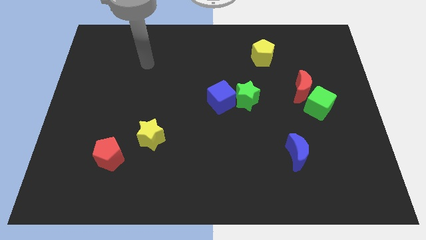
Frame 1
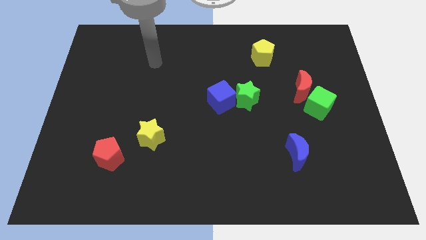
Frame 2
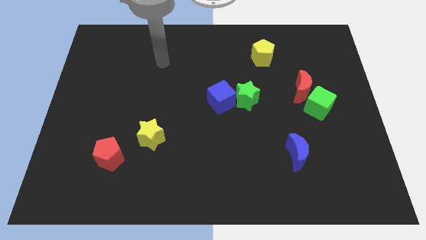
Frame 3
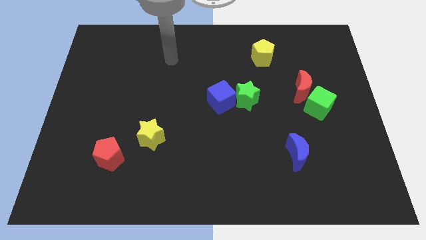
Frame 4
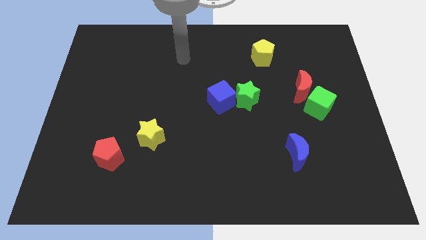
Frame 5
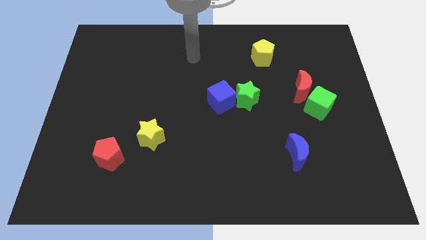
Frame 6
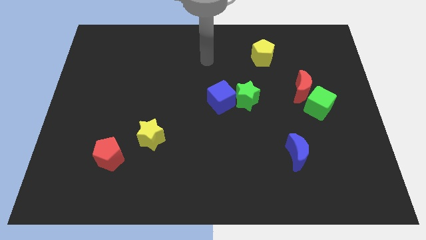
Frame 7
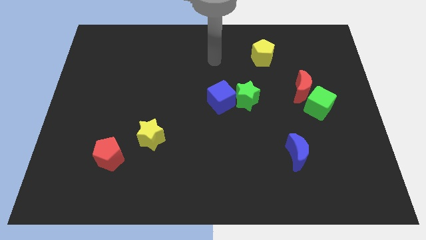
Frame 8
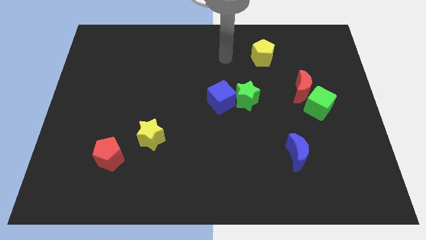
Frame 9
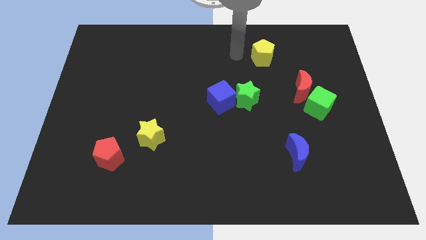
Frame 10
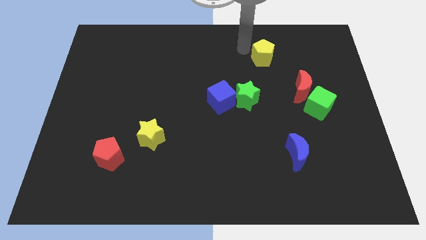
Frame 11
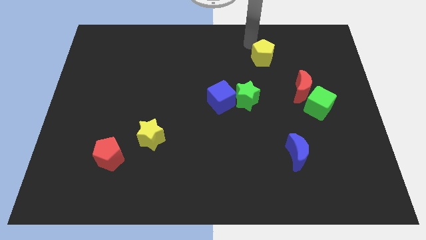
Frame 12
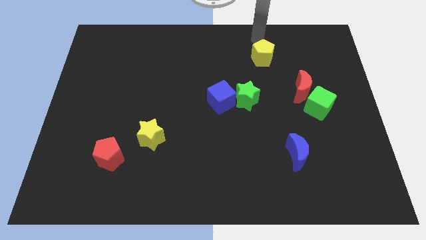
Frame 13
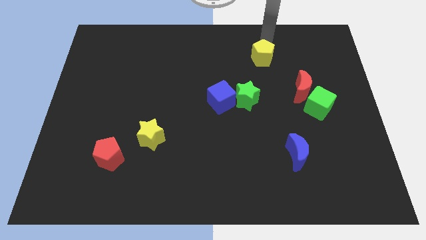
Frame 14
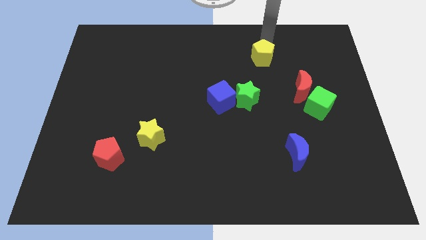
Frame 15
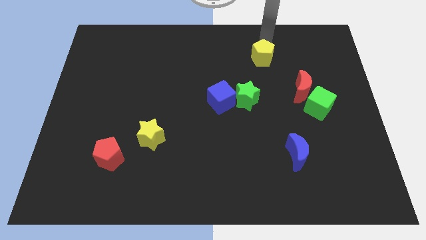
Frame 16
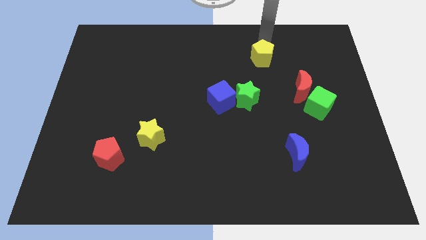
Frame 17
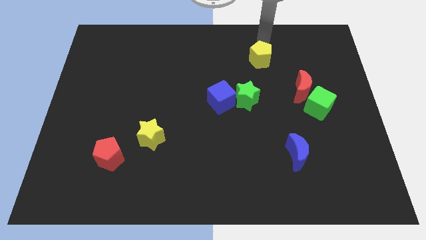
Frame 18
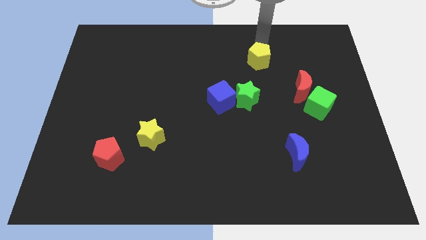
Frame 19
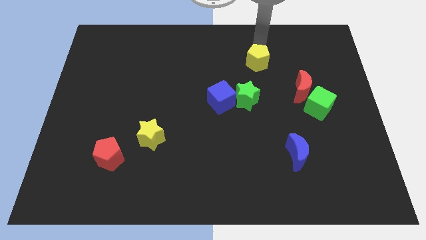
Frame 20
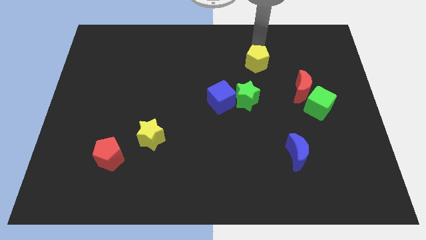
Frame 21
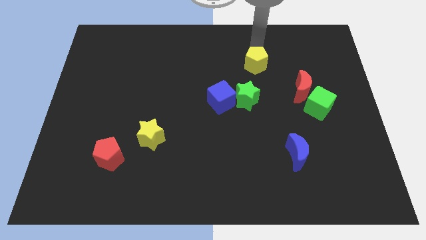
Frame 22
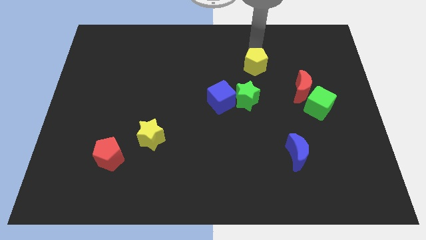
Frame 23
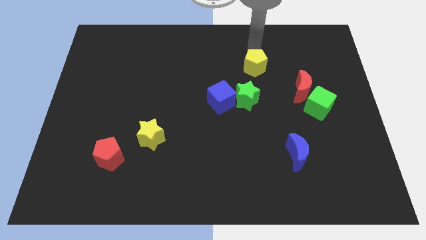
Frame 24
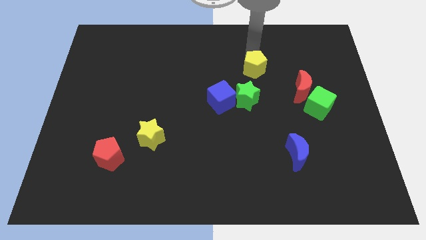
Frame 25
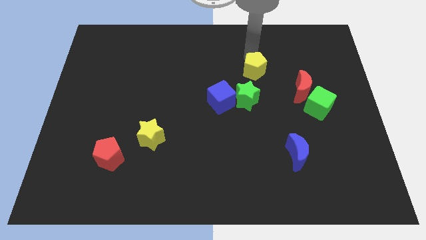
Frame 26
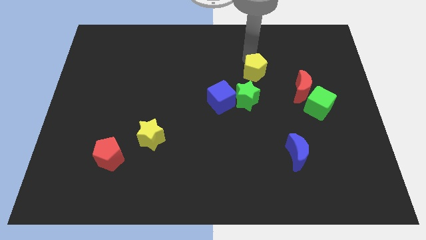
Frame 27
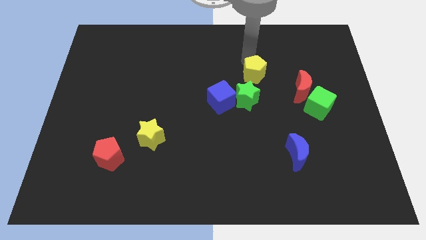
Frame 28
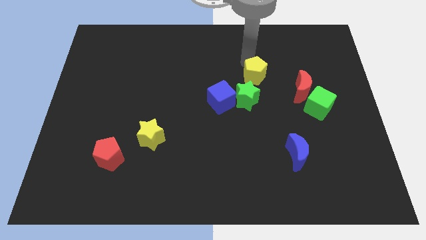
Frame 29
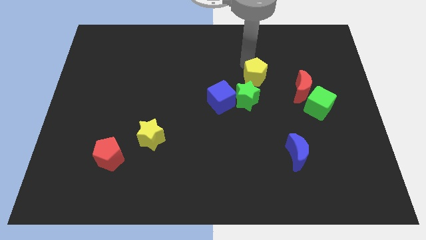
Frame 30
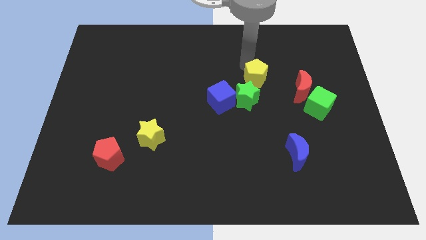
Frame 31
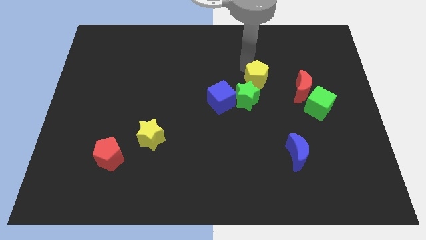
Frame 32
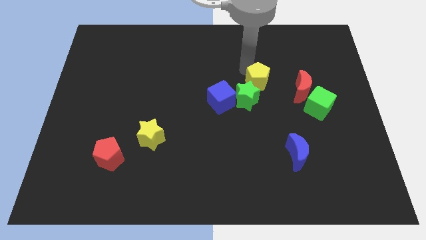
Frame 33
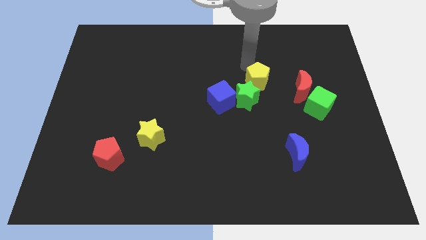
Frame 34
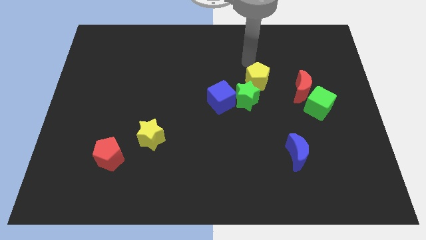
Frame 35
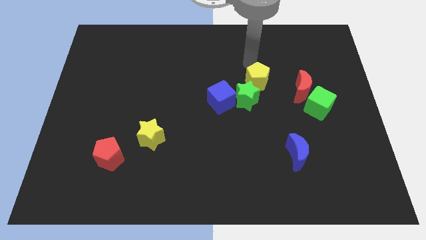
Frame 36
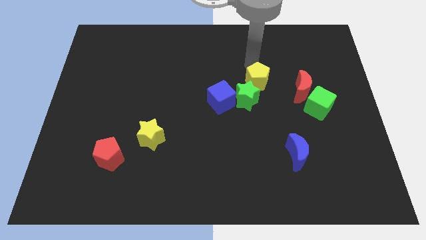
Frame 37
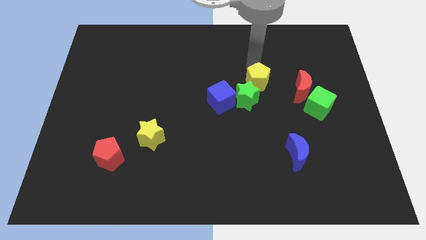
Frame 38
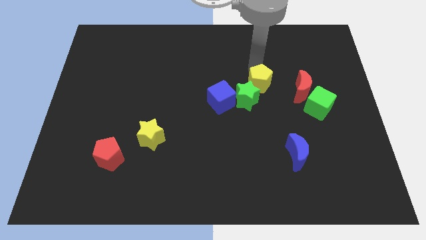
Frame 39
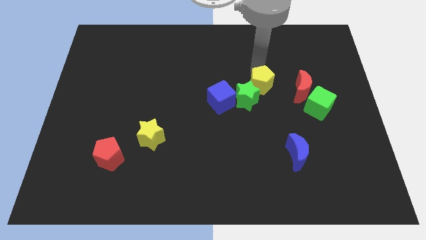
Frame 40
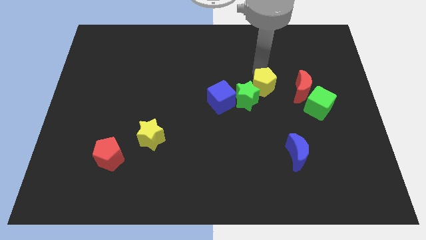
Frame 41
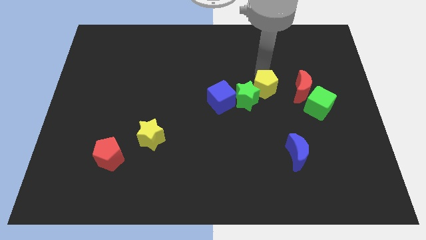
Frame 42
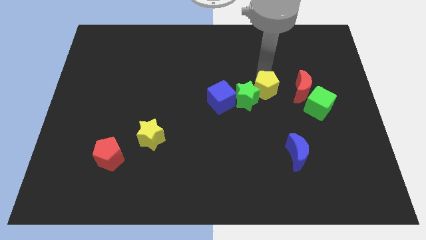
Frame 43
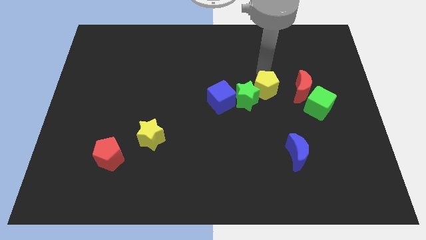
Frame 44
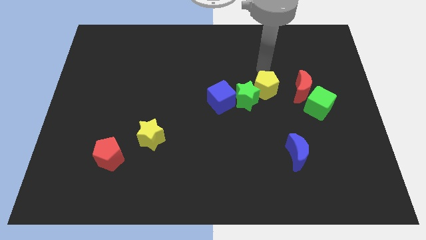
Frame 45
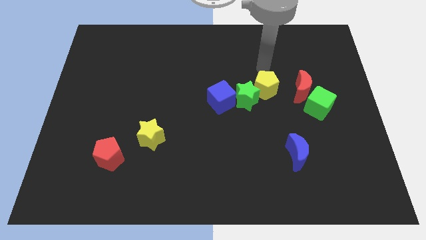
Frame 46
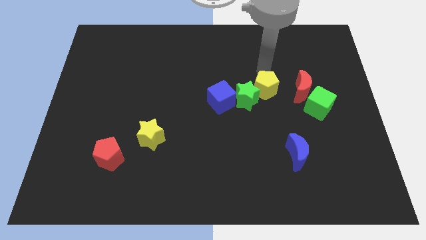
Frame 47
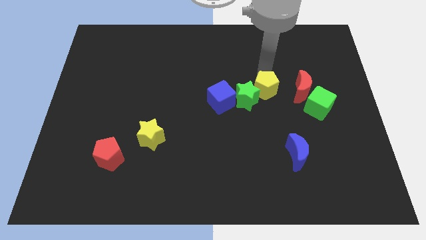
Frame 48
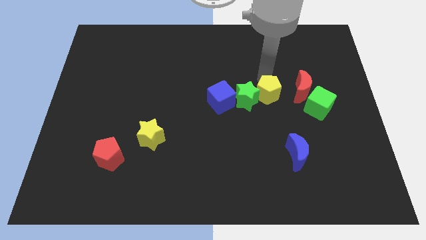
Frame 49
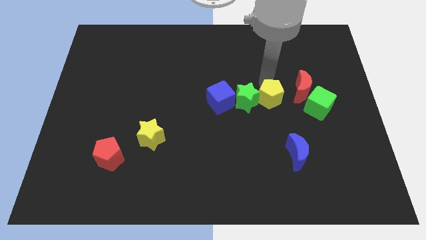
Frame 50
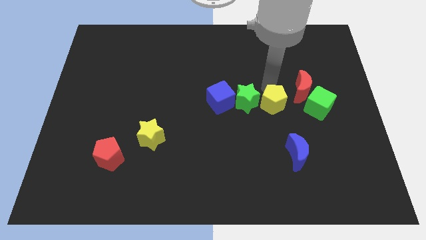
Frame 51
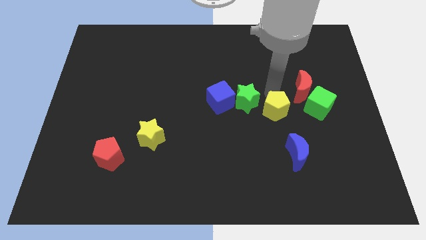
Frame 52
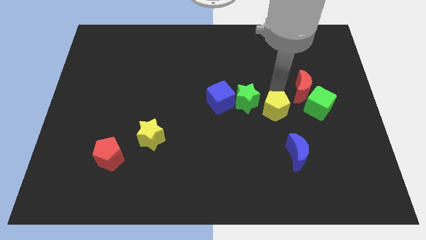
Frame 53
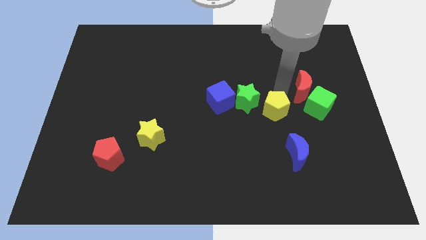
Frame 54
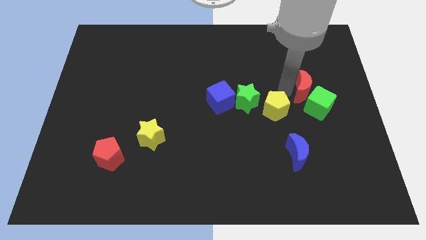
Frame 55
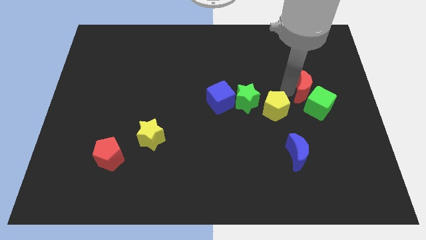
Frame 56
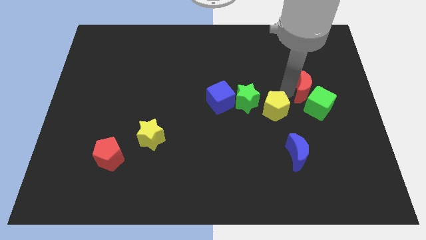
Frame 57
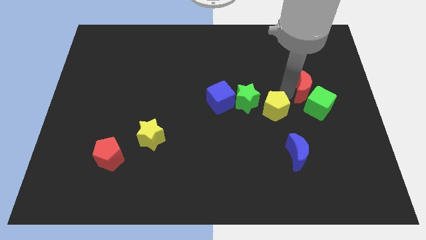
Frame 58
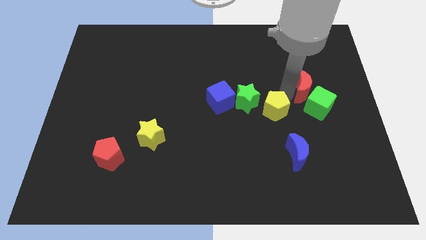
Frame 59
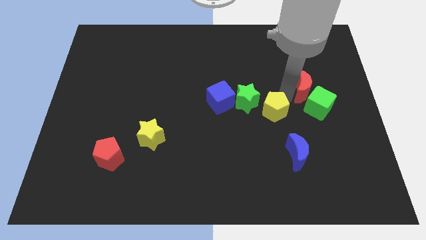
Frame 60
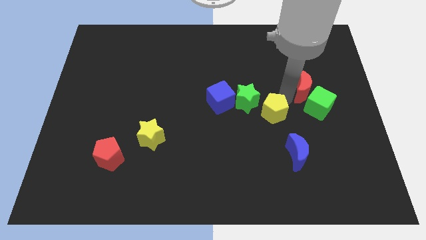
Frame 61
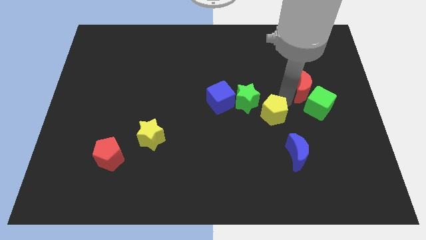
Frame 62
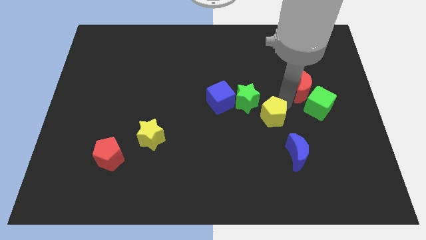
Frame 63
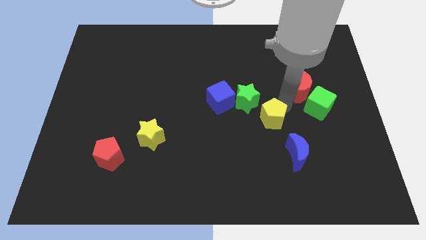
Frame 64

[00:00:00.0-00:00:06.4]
push the yellow pentagon downwards

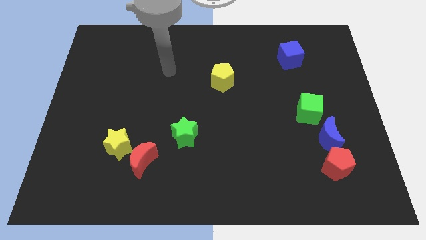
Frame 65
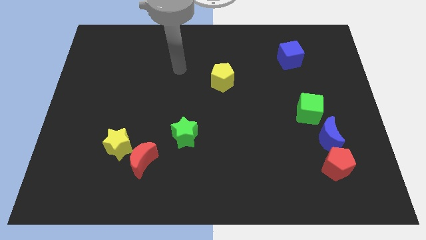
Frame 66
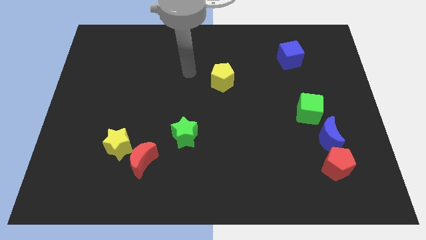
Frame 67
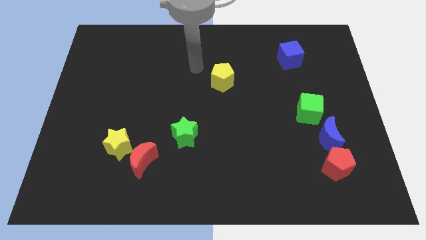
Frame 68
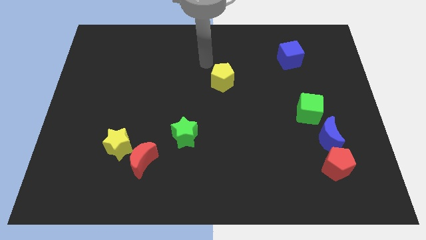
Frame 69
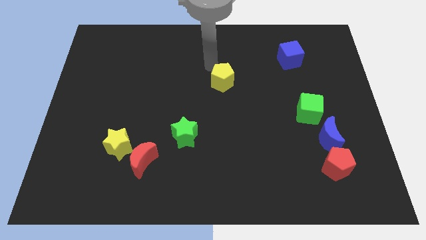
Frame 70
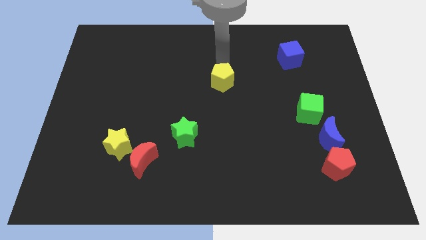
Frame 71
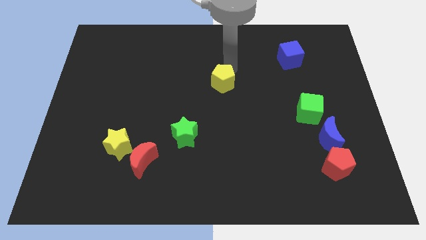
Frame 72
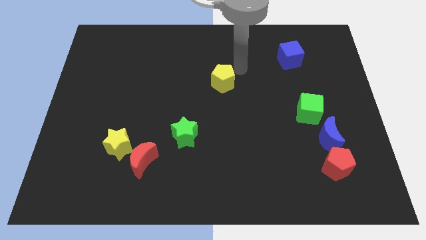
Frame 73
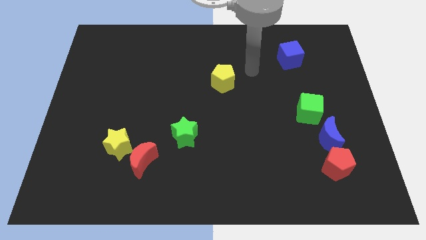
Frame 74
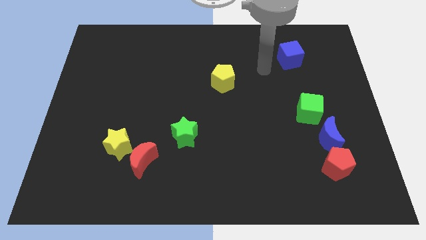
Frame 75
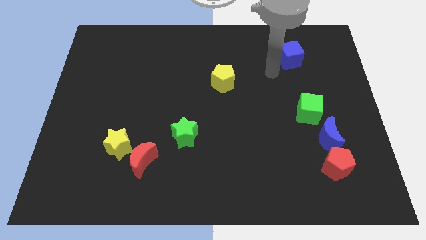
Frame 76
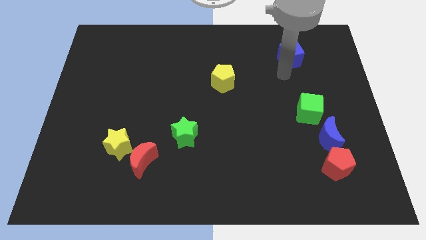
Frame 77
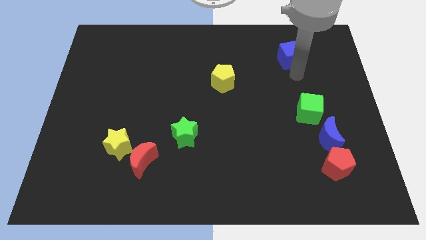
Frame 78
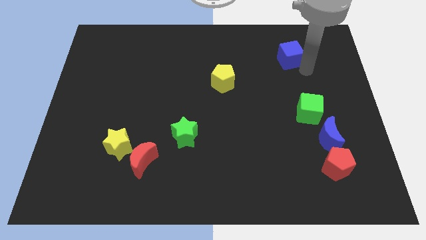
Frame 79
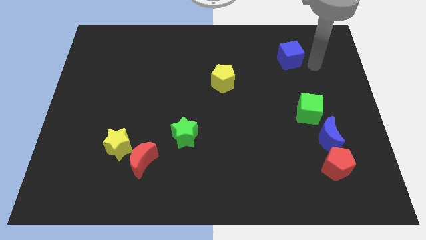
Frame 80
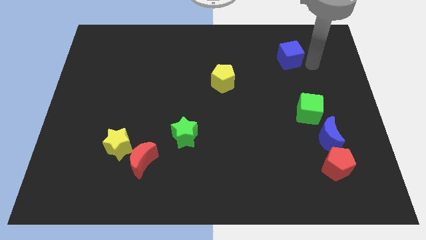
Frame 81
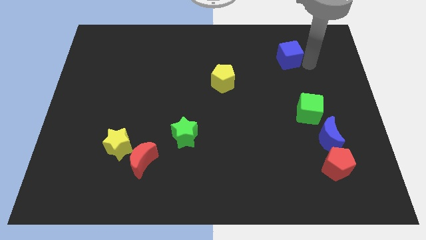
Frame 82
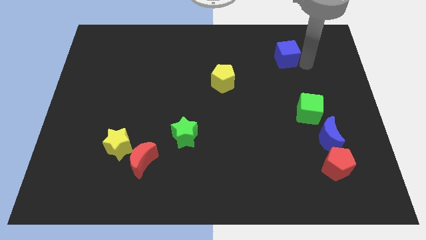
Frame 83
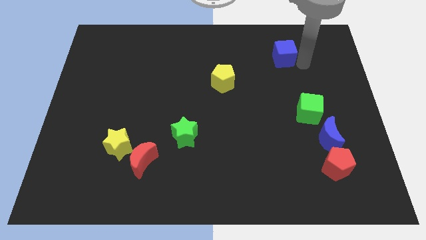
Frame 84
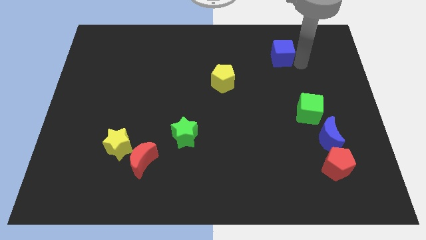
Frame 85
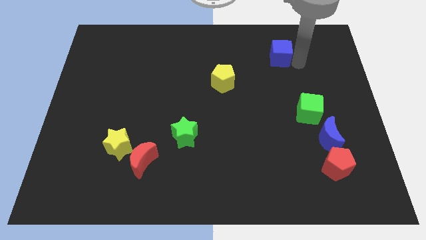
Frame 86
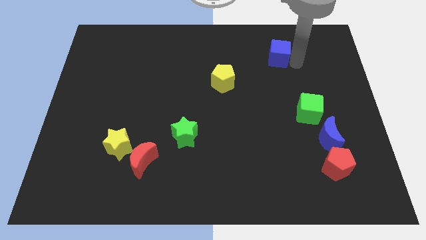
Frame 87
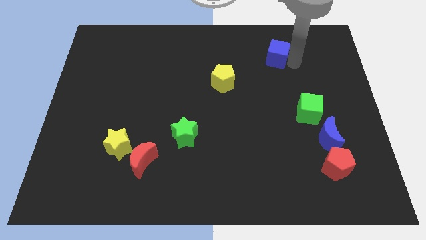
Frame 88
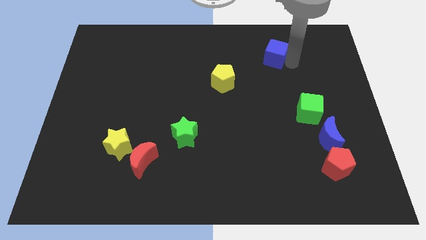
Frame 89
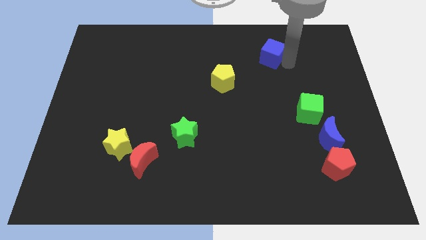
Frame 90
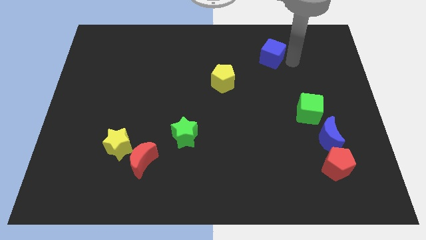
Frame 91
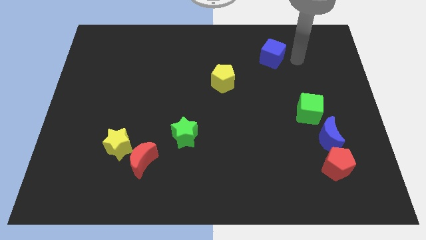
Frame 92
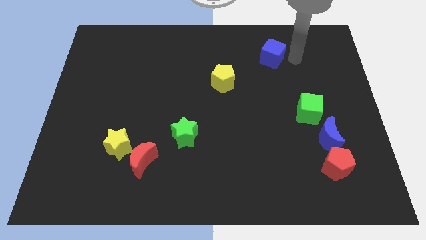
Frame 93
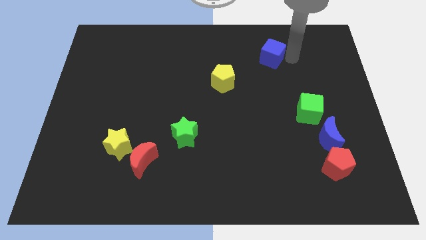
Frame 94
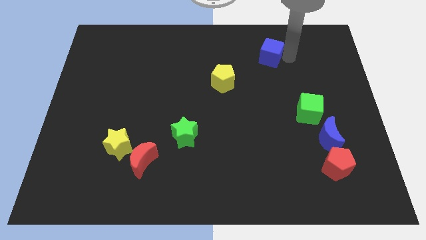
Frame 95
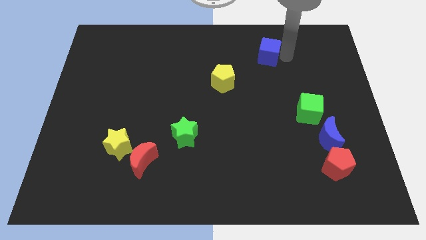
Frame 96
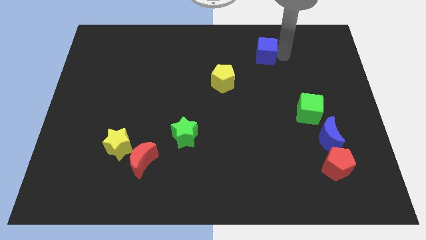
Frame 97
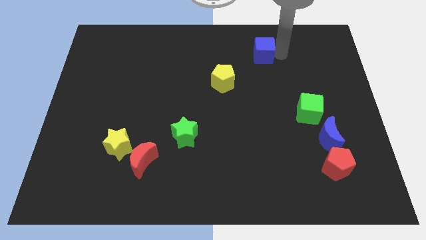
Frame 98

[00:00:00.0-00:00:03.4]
slightly slide the blue cube to the left
